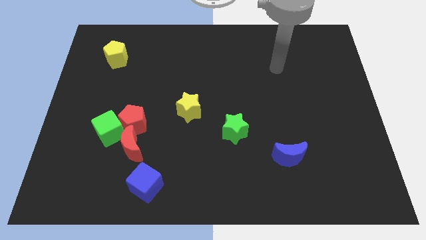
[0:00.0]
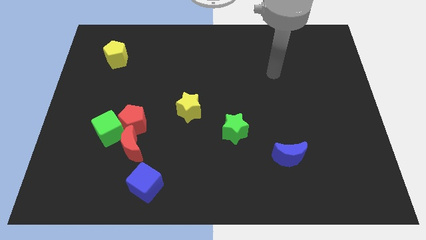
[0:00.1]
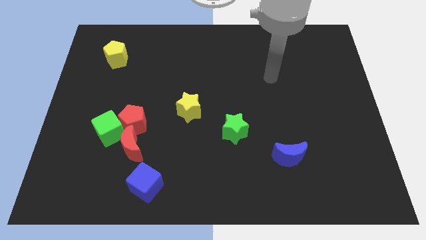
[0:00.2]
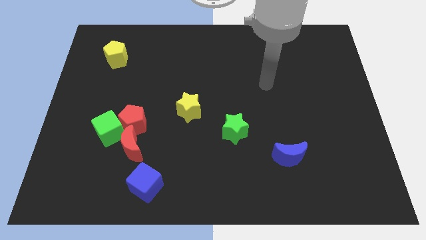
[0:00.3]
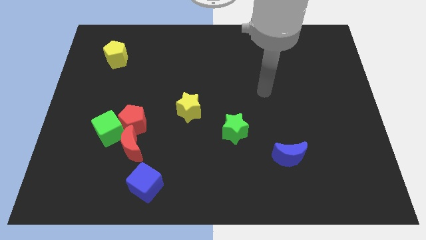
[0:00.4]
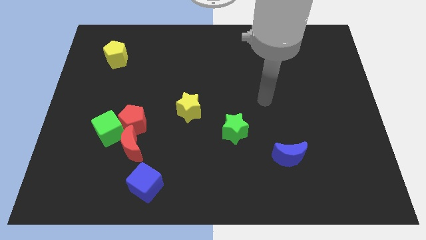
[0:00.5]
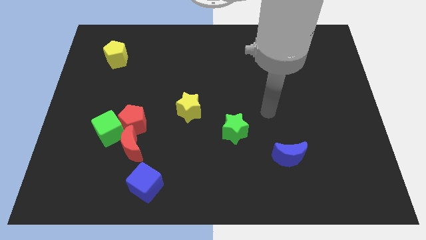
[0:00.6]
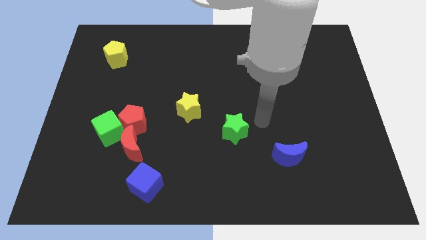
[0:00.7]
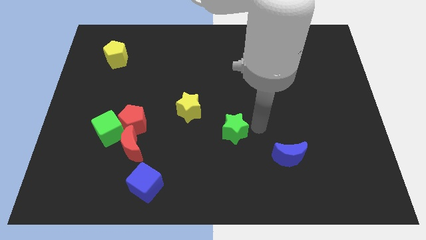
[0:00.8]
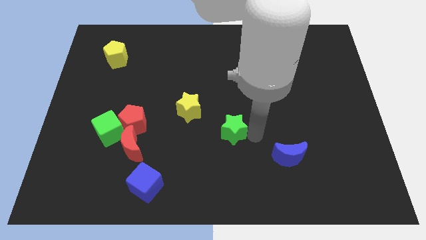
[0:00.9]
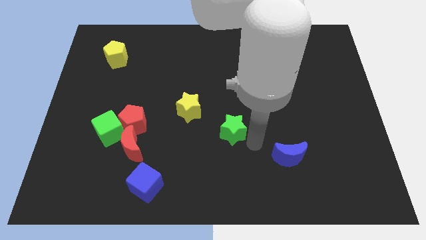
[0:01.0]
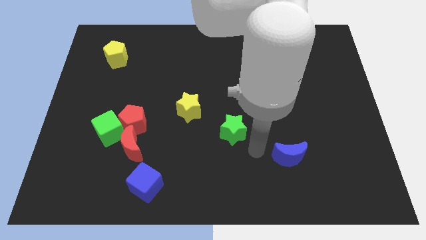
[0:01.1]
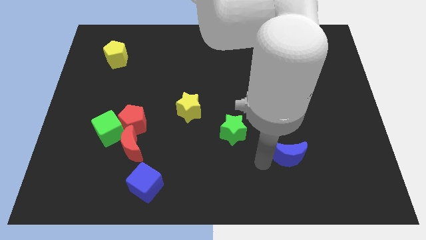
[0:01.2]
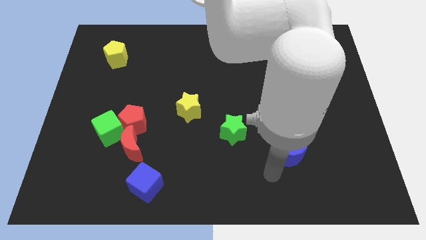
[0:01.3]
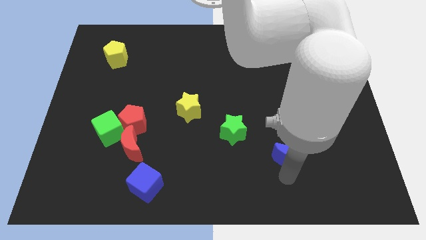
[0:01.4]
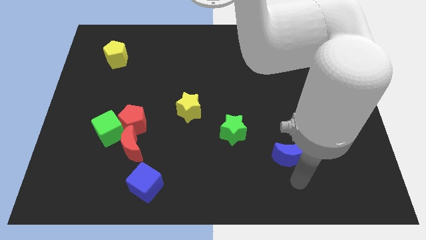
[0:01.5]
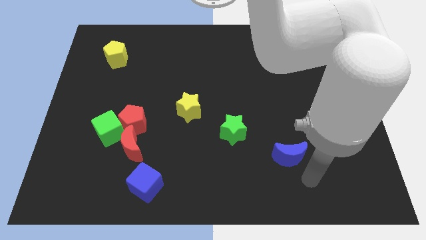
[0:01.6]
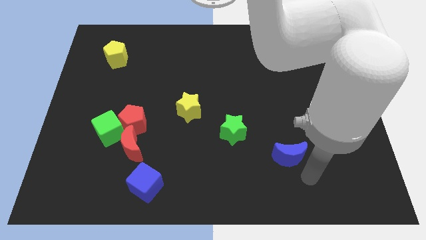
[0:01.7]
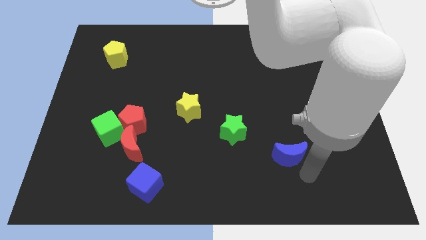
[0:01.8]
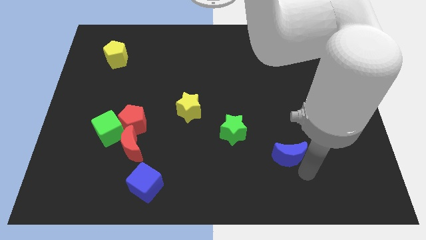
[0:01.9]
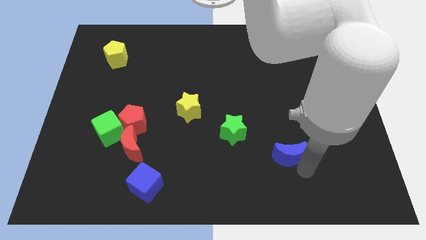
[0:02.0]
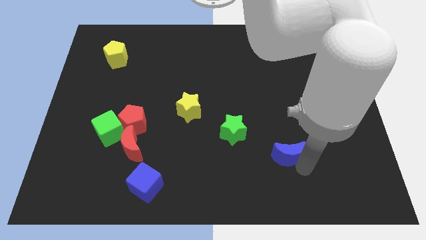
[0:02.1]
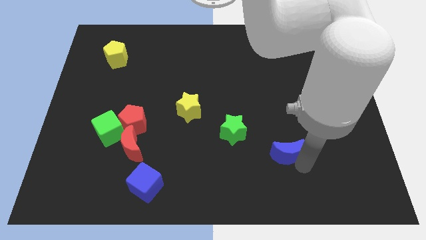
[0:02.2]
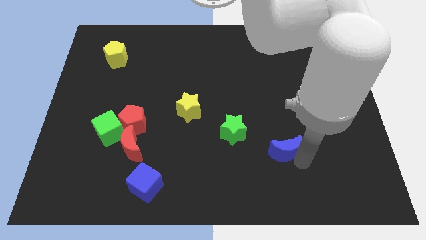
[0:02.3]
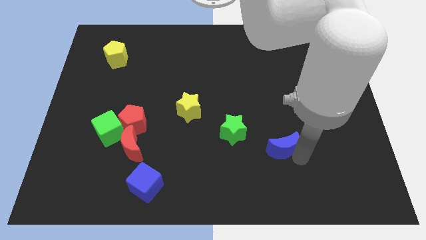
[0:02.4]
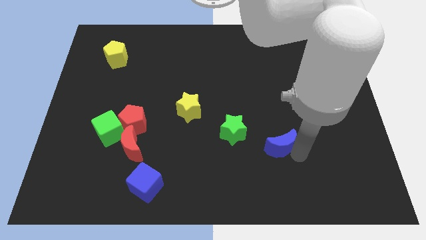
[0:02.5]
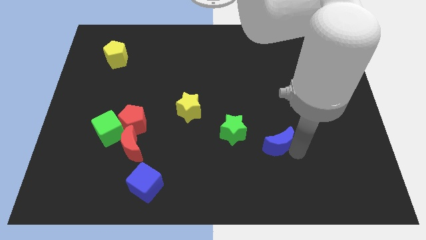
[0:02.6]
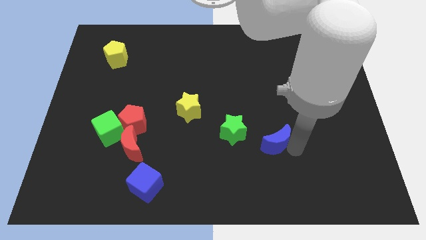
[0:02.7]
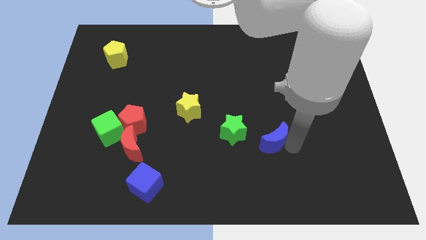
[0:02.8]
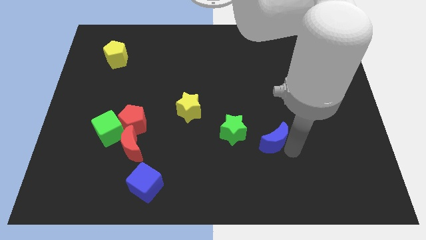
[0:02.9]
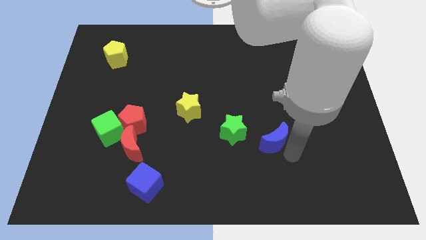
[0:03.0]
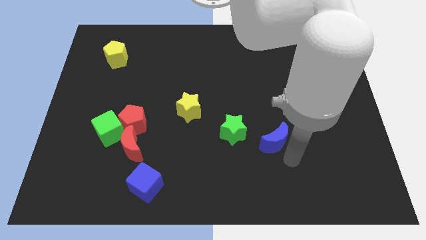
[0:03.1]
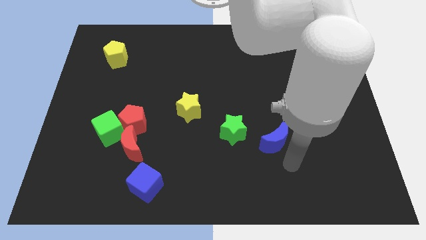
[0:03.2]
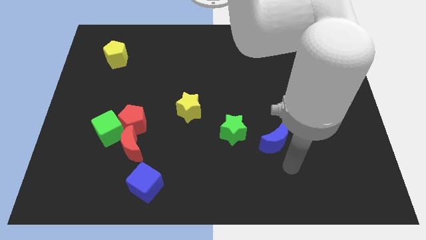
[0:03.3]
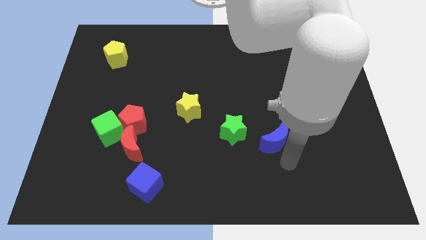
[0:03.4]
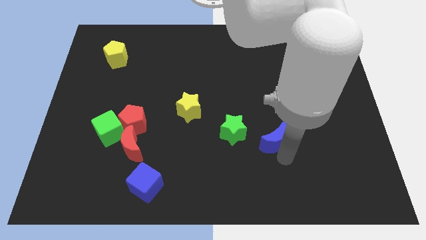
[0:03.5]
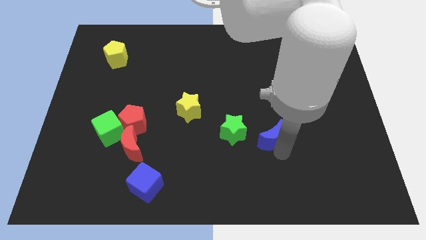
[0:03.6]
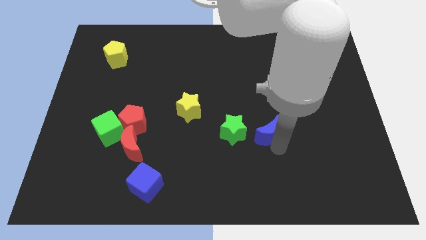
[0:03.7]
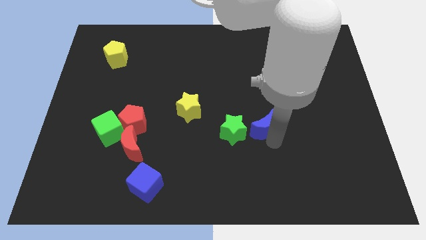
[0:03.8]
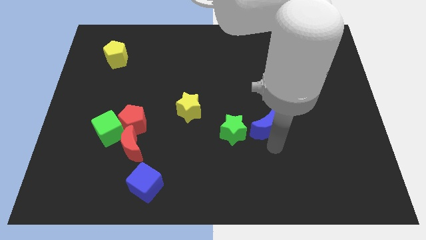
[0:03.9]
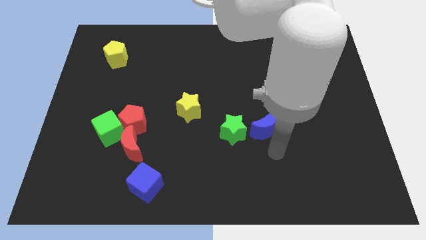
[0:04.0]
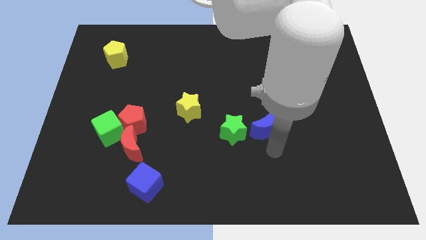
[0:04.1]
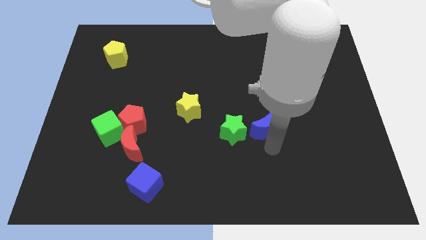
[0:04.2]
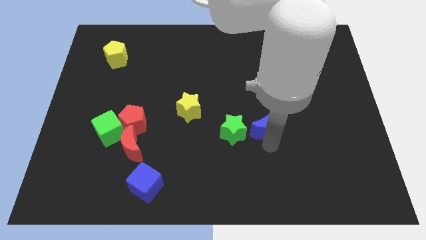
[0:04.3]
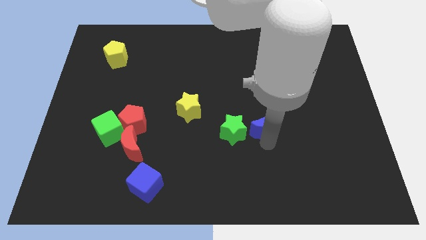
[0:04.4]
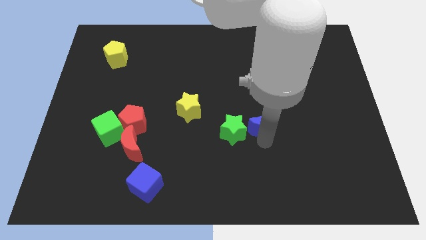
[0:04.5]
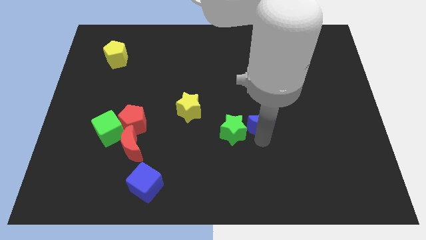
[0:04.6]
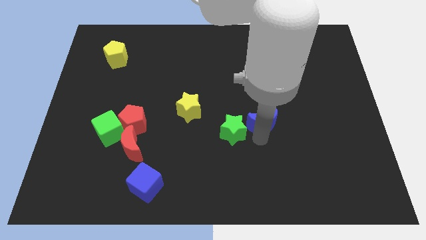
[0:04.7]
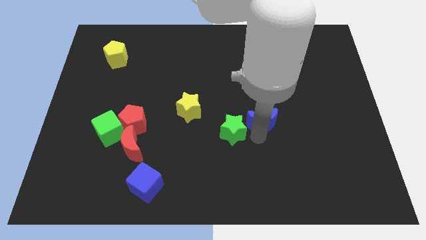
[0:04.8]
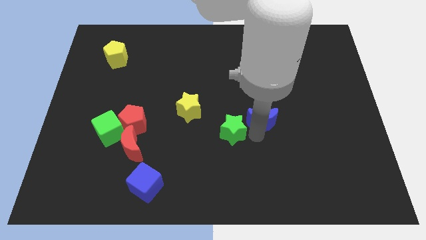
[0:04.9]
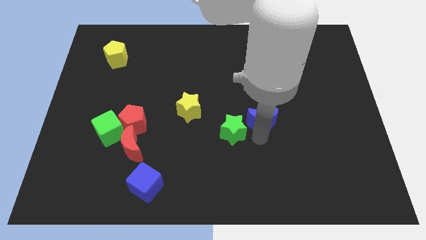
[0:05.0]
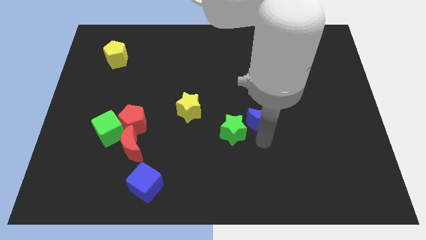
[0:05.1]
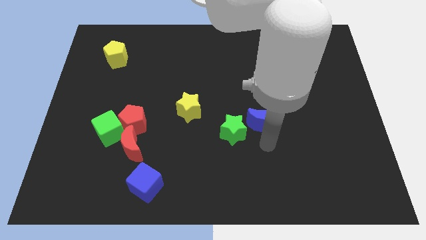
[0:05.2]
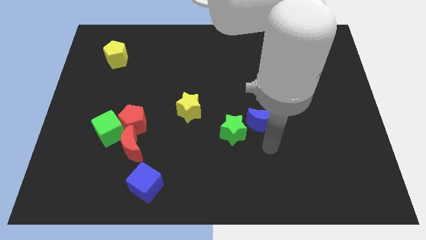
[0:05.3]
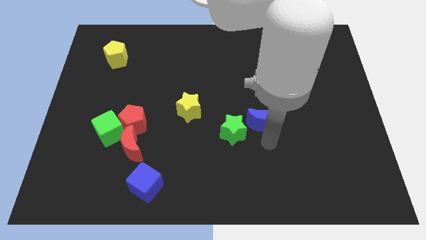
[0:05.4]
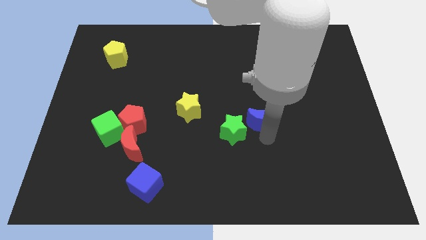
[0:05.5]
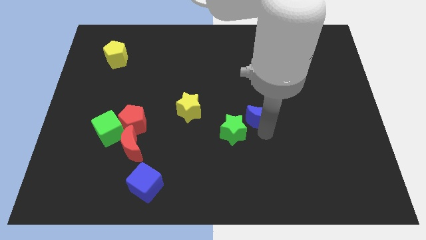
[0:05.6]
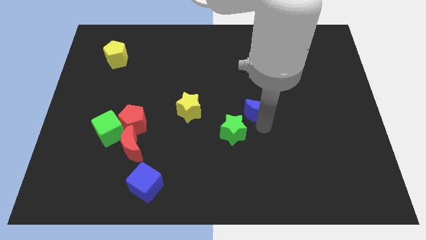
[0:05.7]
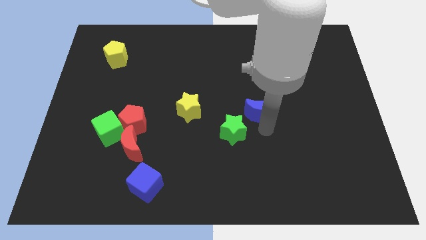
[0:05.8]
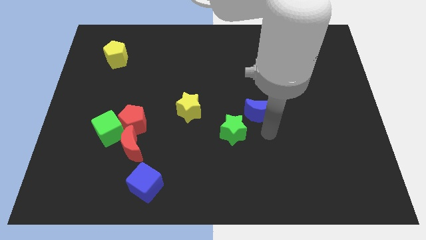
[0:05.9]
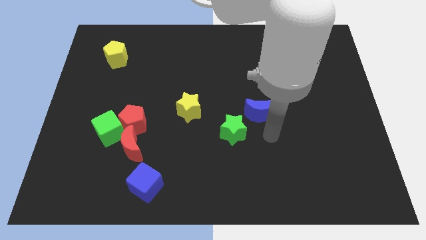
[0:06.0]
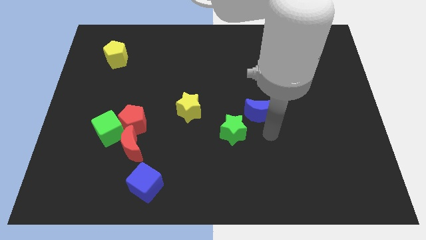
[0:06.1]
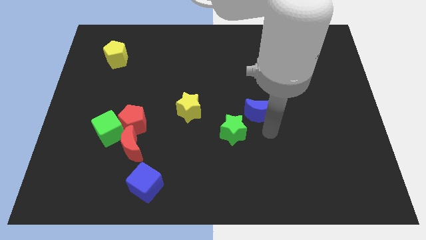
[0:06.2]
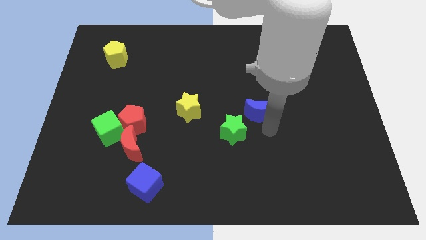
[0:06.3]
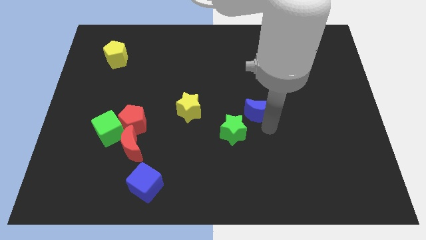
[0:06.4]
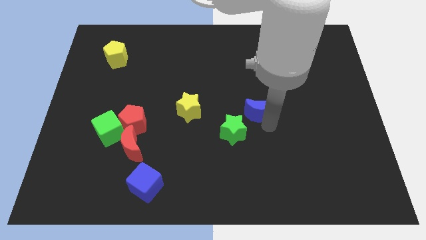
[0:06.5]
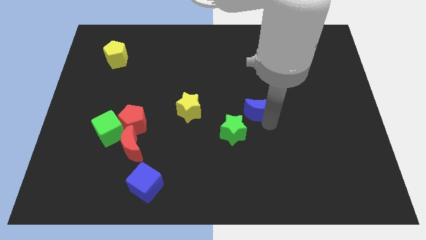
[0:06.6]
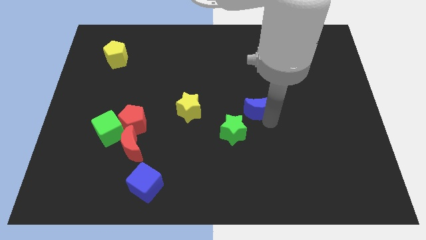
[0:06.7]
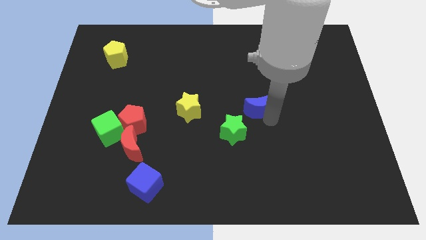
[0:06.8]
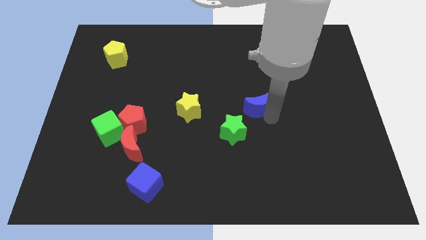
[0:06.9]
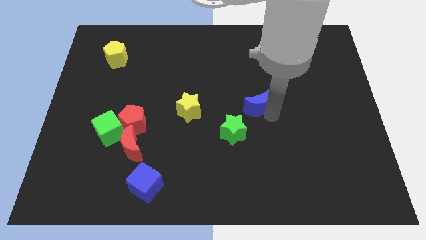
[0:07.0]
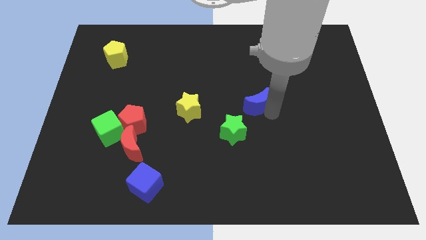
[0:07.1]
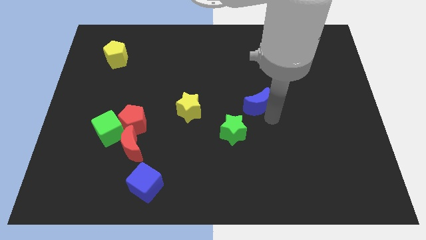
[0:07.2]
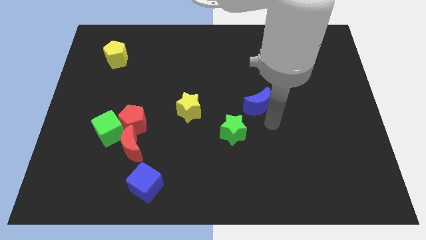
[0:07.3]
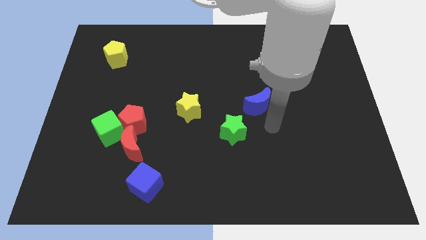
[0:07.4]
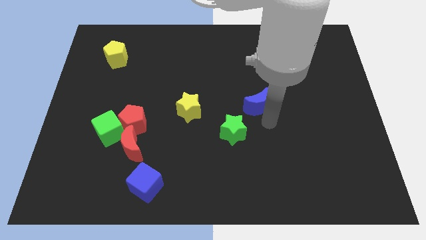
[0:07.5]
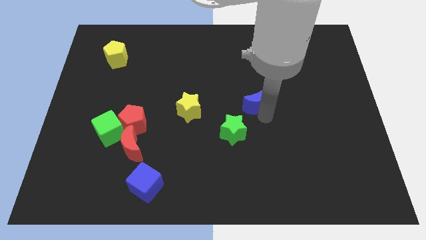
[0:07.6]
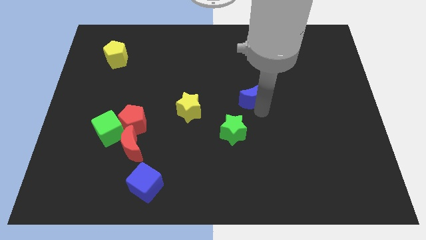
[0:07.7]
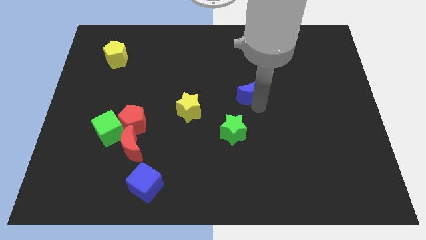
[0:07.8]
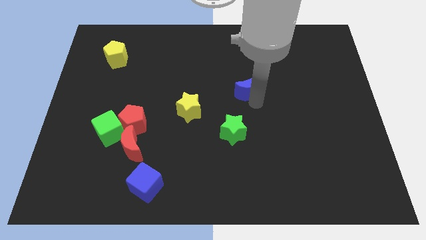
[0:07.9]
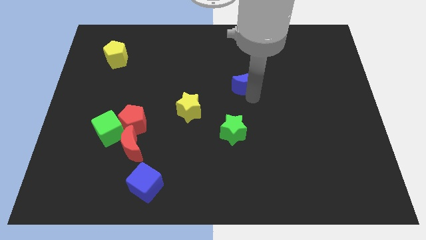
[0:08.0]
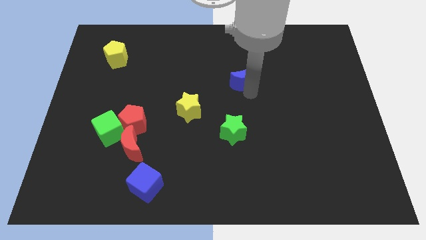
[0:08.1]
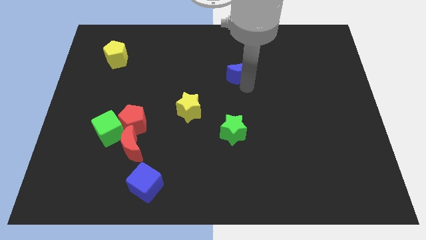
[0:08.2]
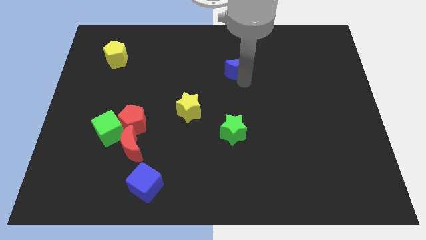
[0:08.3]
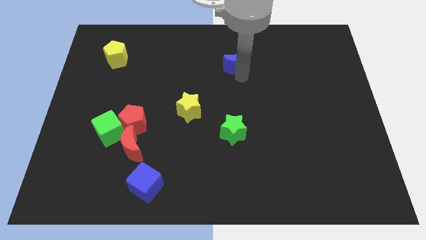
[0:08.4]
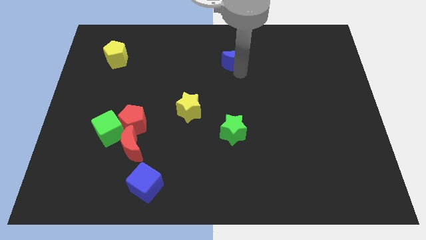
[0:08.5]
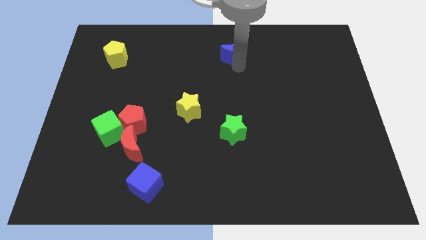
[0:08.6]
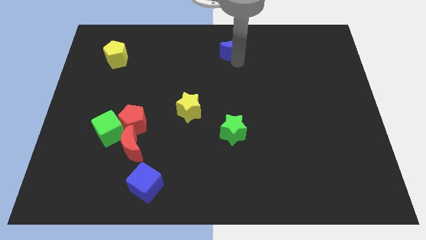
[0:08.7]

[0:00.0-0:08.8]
put the blue moon to the top
